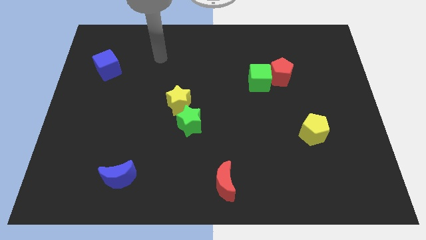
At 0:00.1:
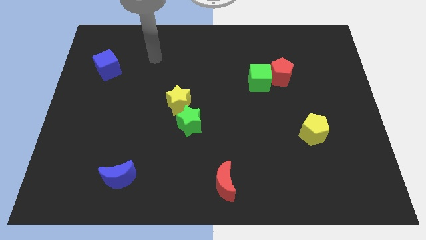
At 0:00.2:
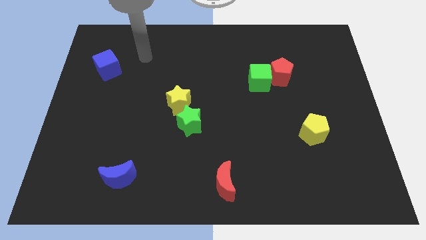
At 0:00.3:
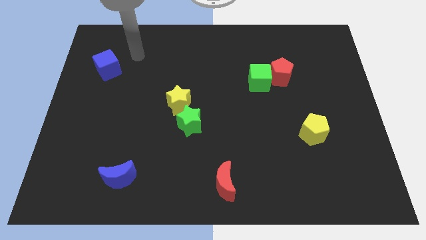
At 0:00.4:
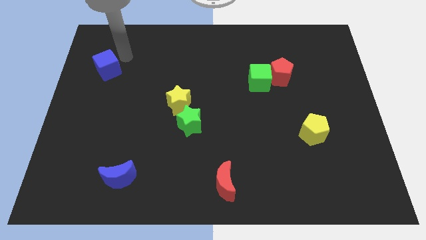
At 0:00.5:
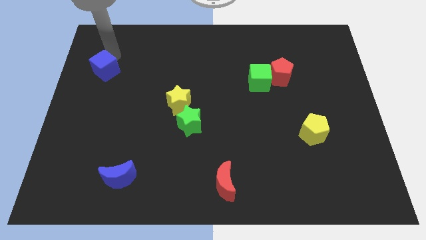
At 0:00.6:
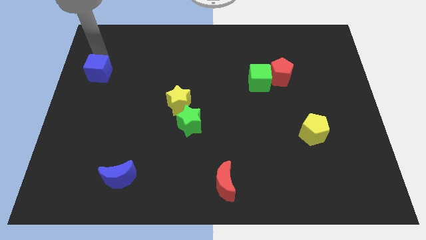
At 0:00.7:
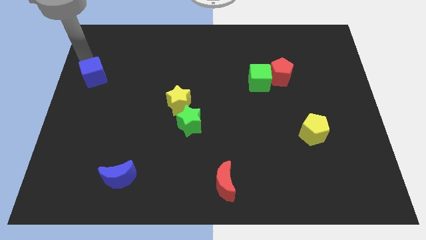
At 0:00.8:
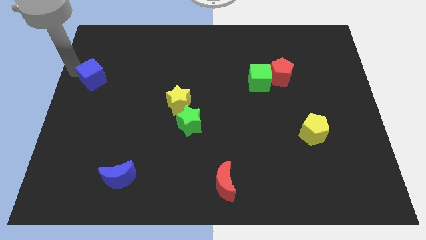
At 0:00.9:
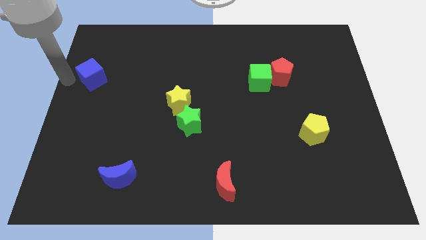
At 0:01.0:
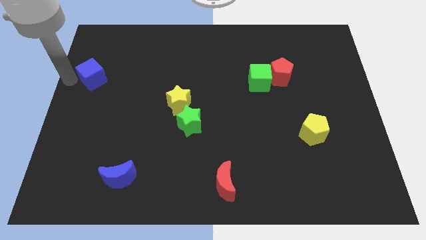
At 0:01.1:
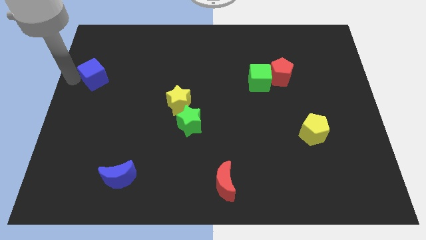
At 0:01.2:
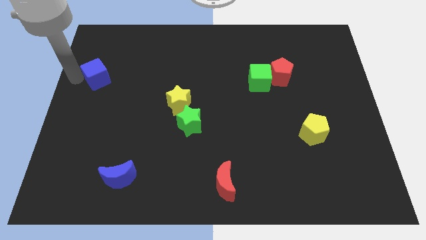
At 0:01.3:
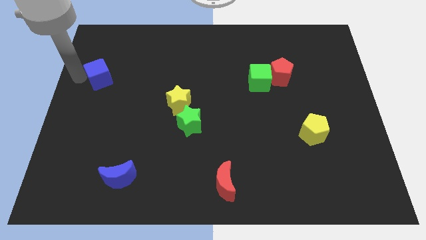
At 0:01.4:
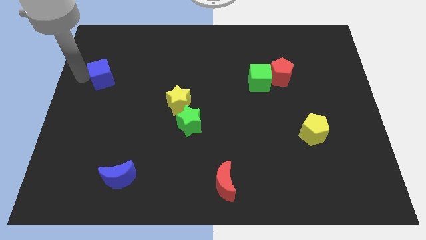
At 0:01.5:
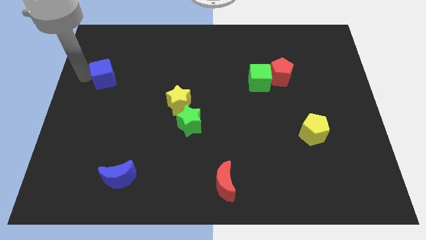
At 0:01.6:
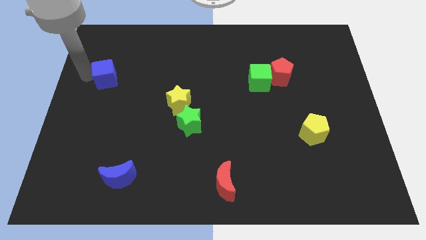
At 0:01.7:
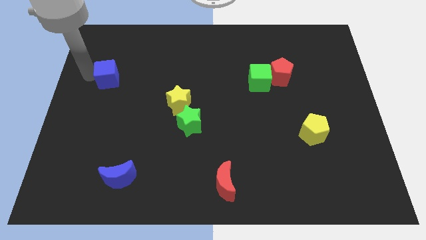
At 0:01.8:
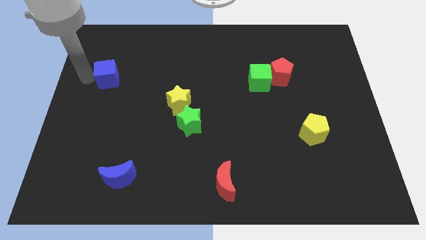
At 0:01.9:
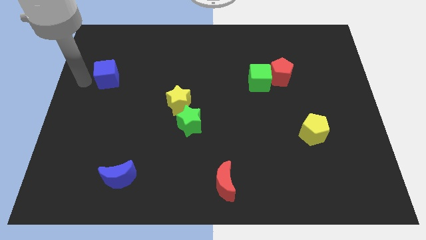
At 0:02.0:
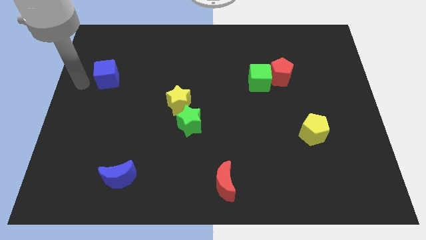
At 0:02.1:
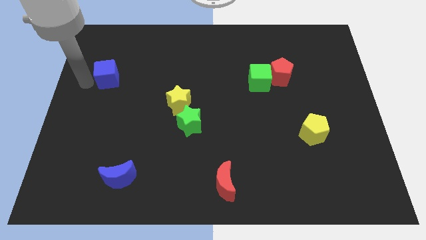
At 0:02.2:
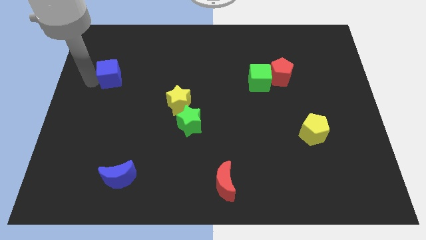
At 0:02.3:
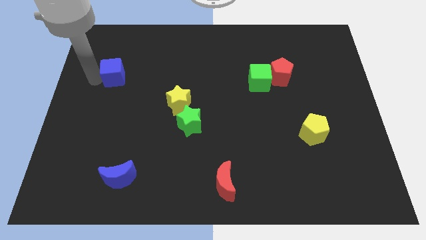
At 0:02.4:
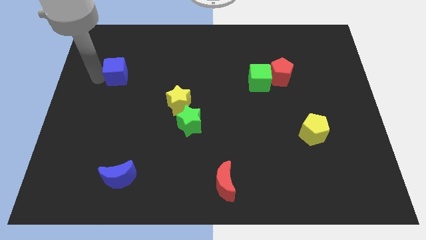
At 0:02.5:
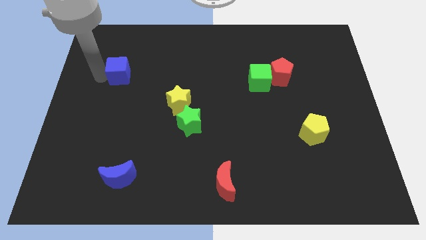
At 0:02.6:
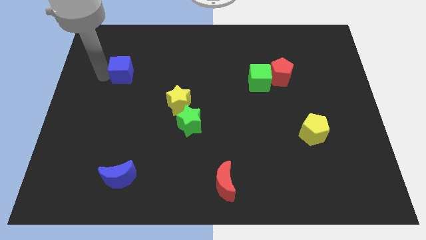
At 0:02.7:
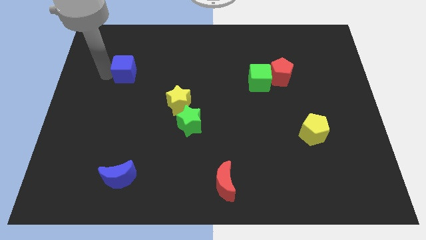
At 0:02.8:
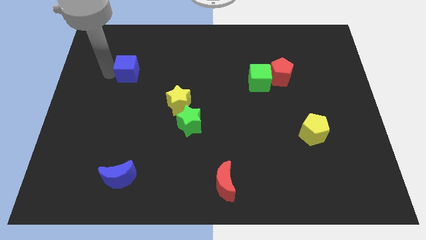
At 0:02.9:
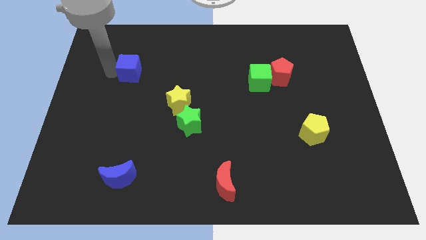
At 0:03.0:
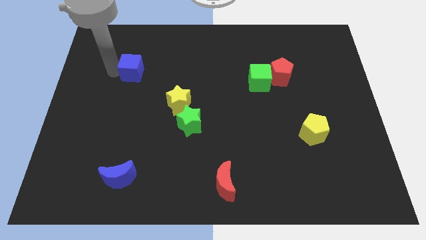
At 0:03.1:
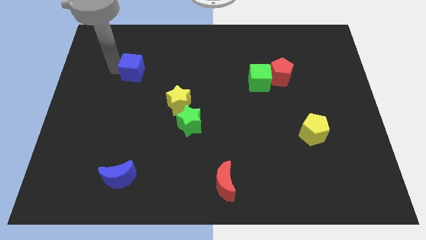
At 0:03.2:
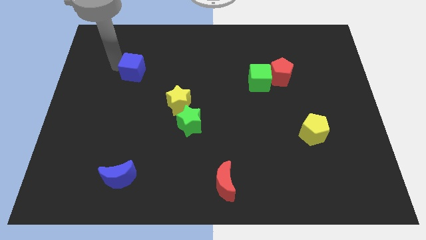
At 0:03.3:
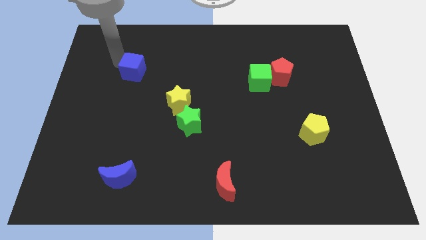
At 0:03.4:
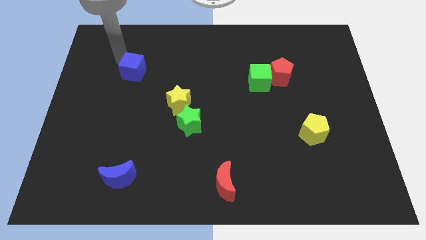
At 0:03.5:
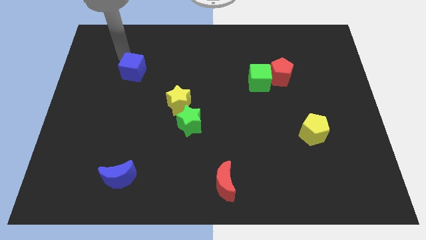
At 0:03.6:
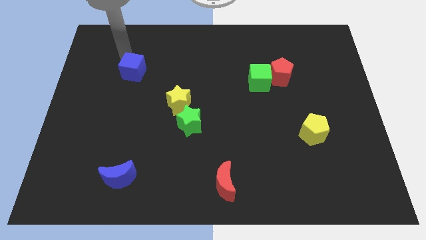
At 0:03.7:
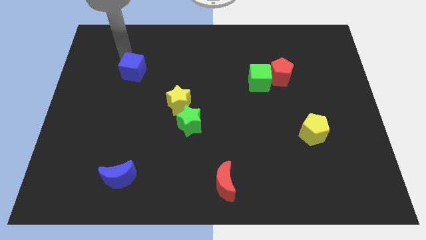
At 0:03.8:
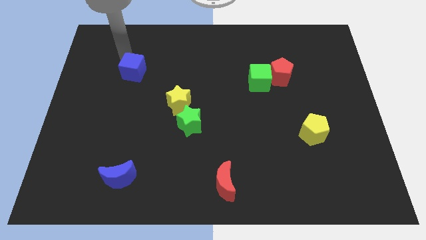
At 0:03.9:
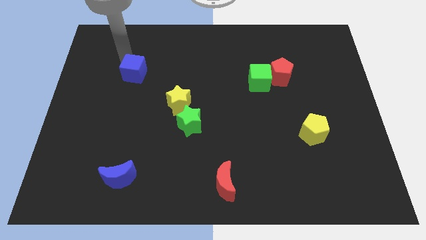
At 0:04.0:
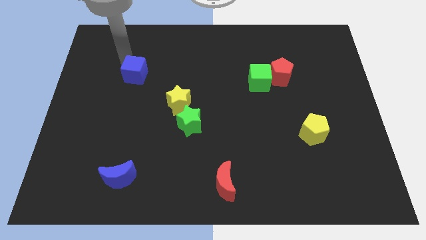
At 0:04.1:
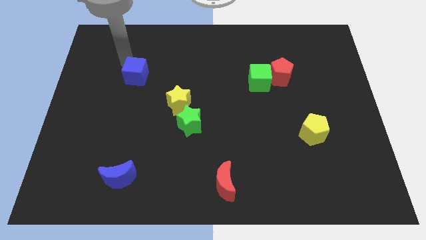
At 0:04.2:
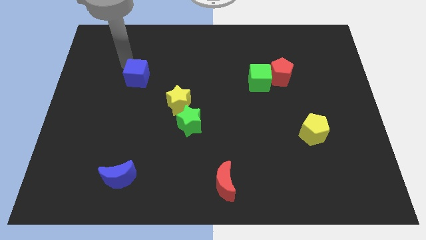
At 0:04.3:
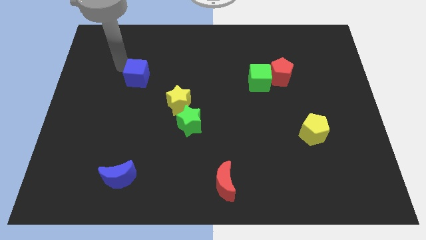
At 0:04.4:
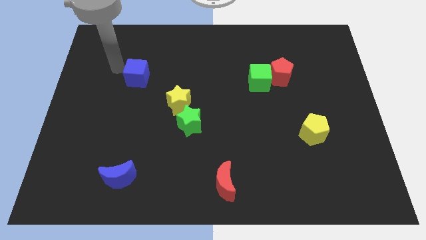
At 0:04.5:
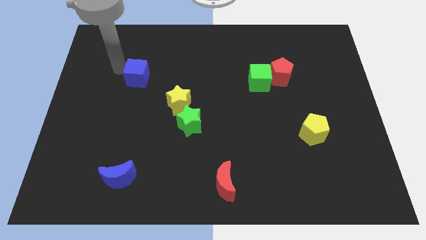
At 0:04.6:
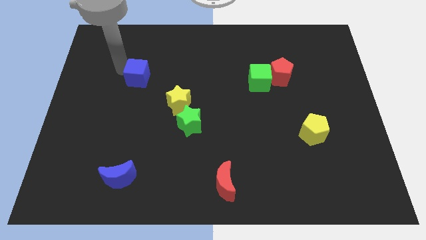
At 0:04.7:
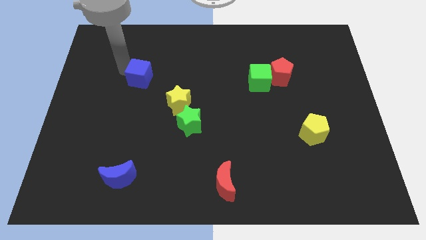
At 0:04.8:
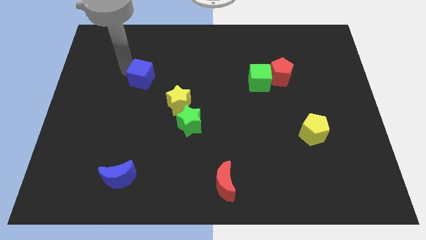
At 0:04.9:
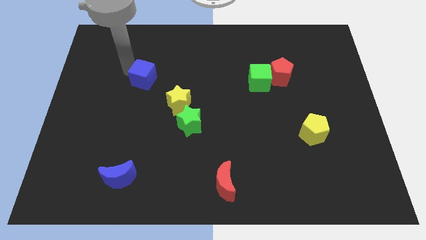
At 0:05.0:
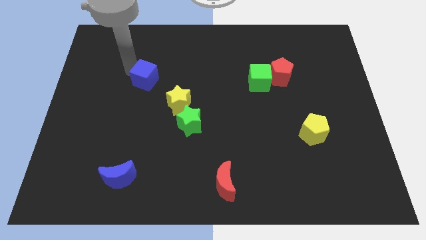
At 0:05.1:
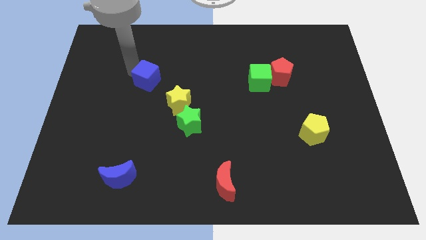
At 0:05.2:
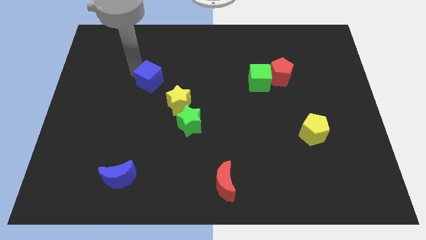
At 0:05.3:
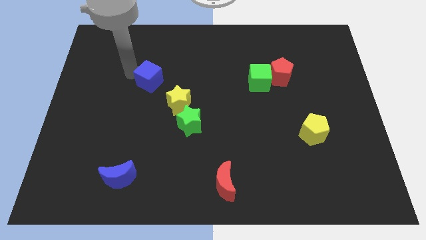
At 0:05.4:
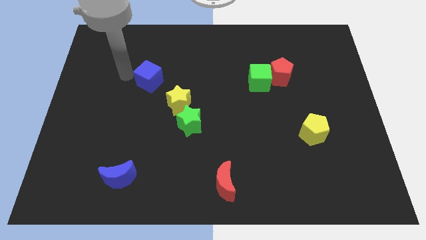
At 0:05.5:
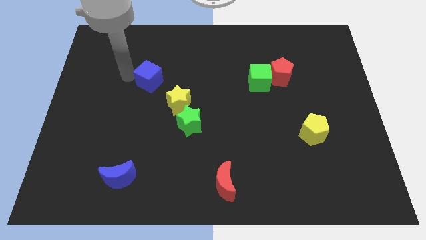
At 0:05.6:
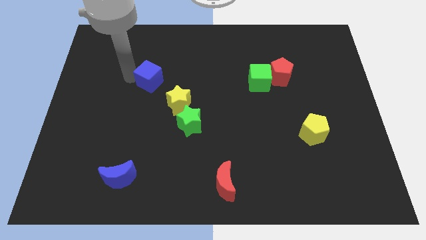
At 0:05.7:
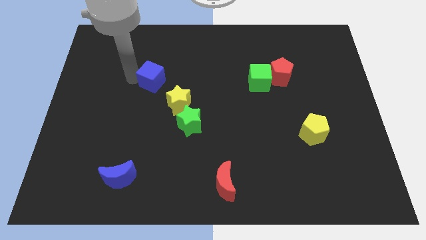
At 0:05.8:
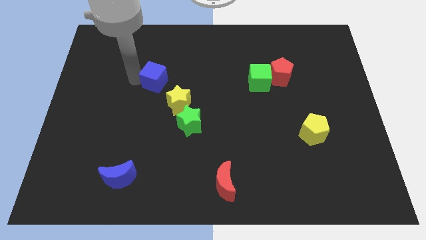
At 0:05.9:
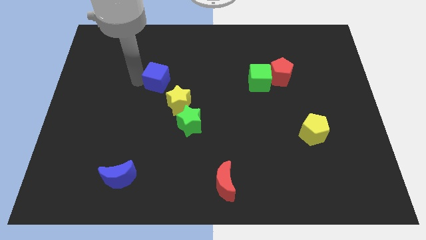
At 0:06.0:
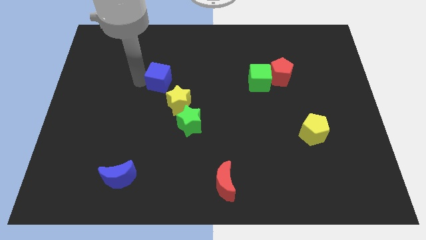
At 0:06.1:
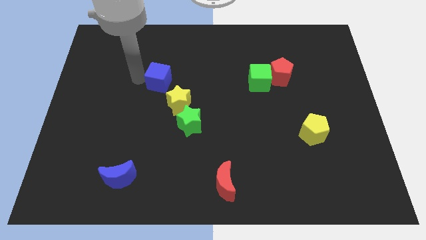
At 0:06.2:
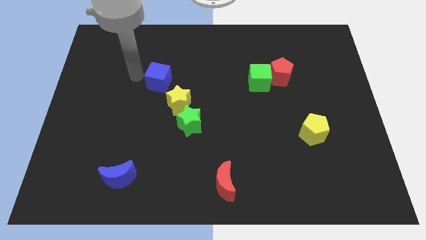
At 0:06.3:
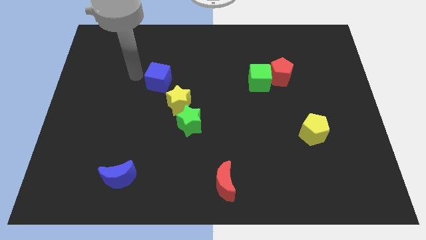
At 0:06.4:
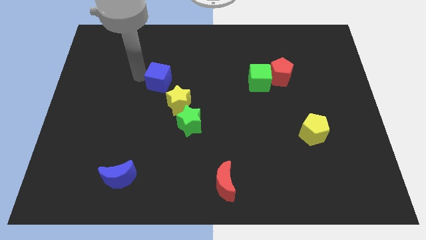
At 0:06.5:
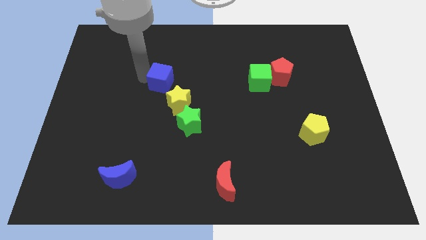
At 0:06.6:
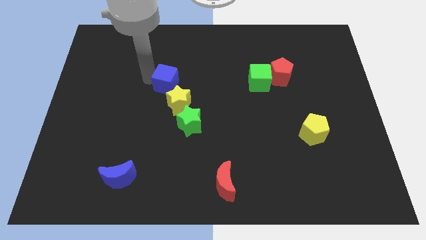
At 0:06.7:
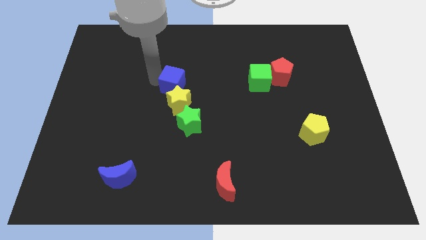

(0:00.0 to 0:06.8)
slide the blue cube to the middle of the board
